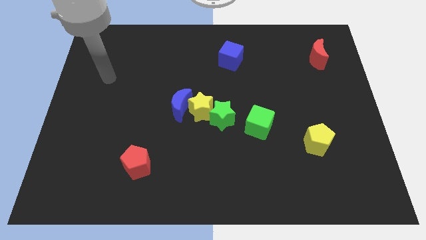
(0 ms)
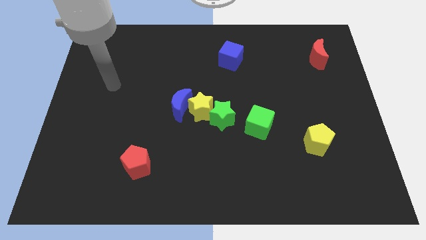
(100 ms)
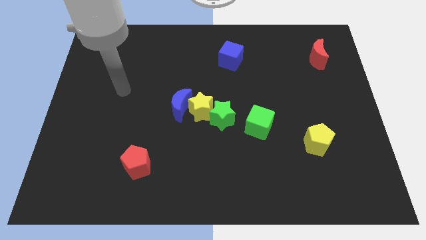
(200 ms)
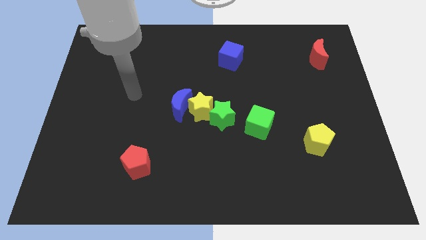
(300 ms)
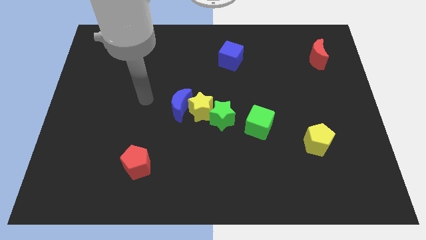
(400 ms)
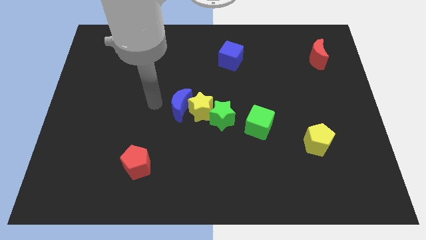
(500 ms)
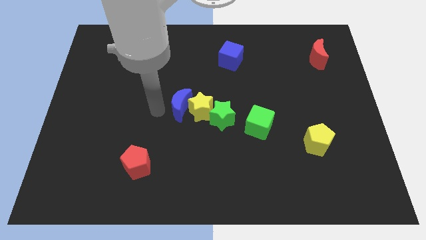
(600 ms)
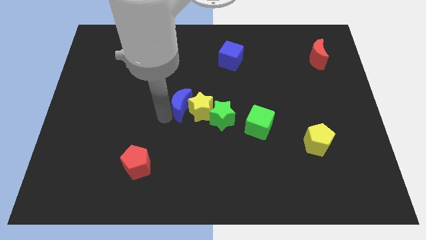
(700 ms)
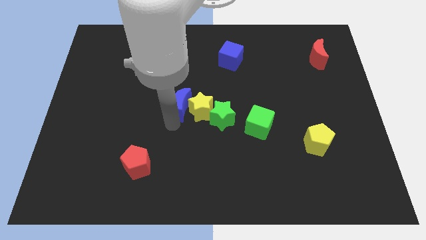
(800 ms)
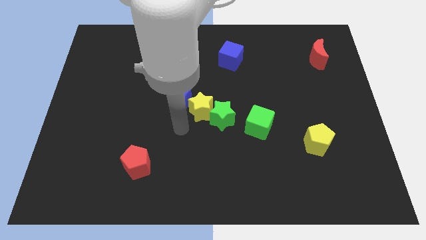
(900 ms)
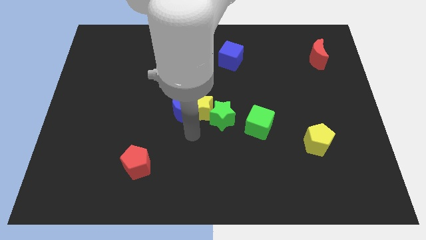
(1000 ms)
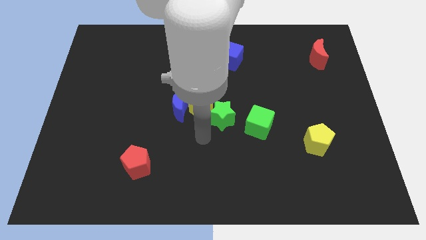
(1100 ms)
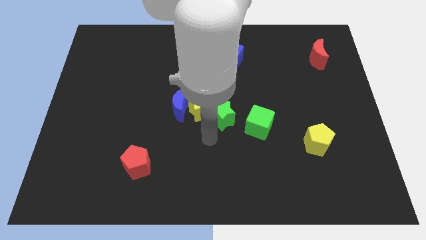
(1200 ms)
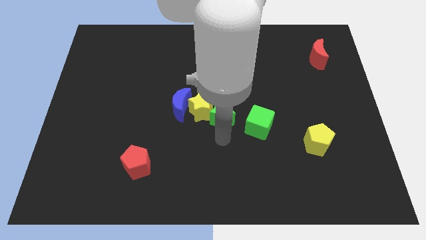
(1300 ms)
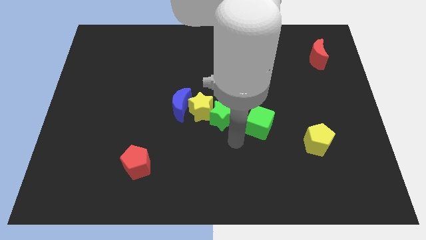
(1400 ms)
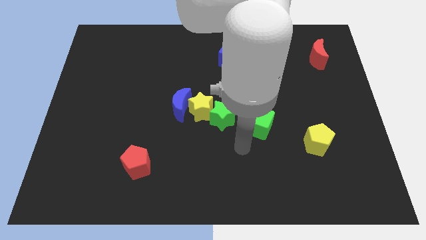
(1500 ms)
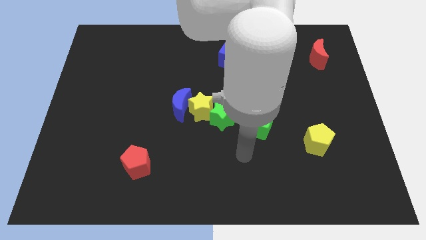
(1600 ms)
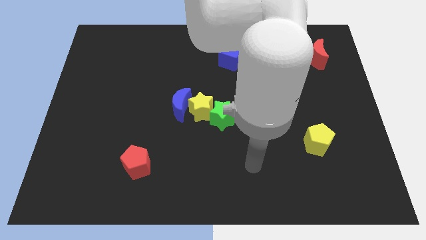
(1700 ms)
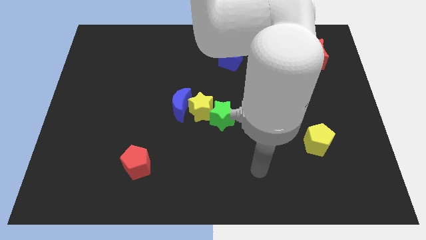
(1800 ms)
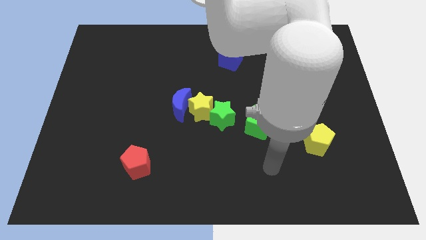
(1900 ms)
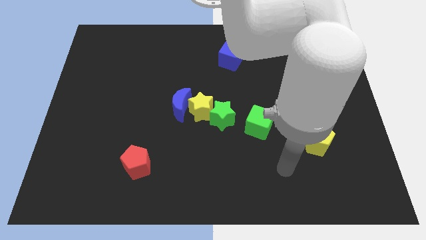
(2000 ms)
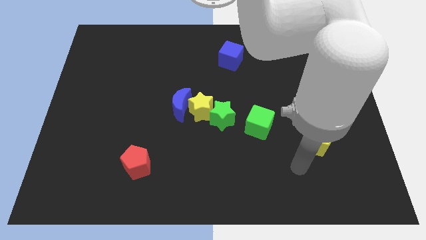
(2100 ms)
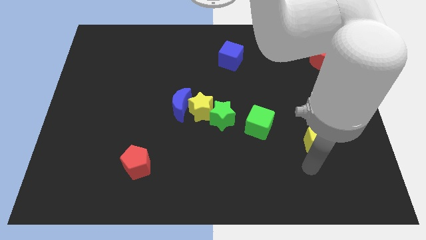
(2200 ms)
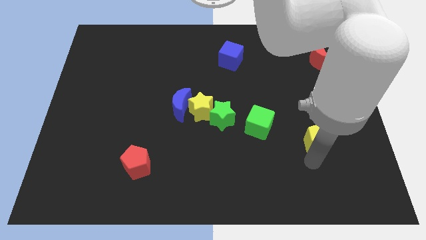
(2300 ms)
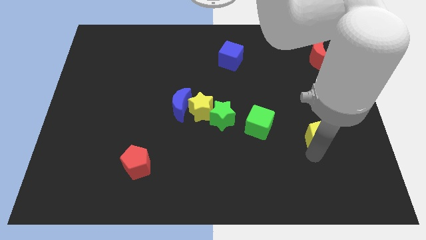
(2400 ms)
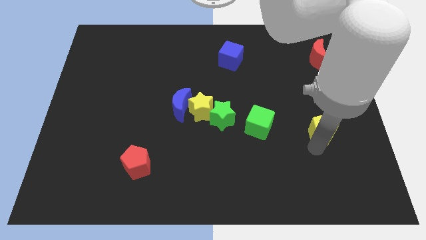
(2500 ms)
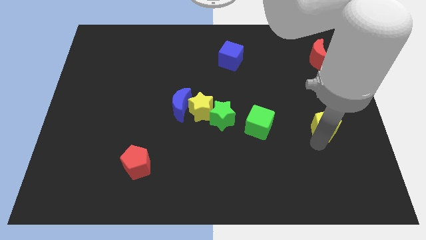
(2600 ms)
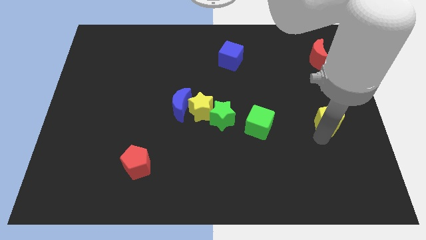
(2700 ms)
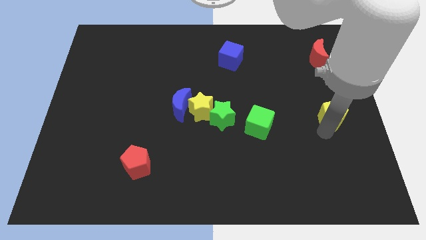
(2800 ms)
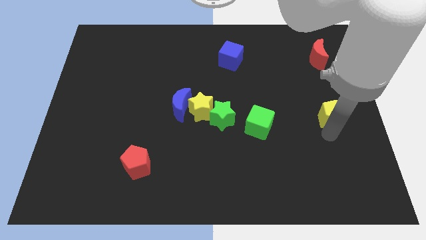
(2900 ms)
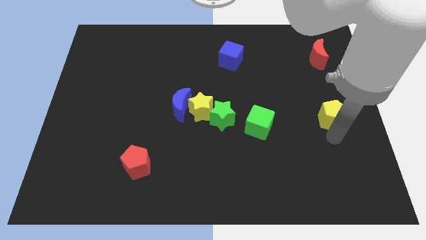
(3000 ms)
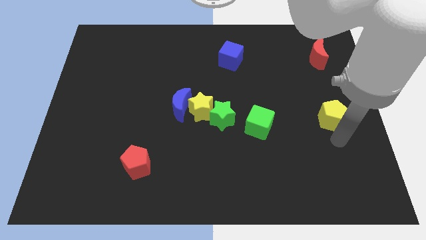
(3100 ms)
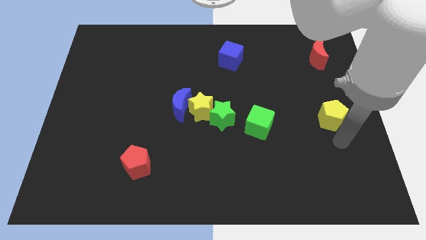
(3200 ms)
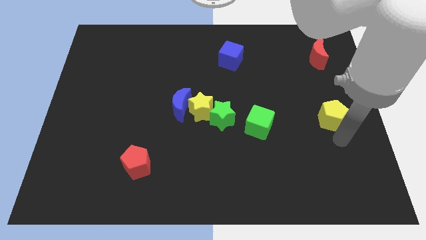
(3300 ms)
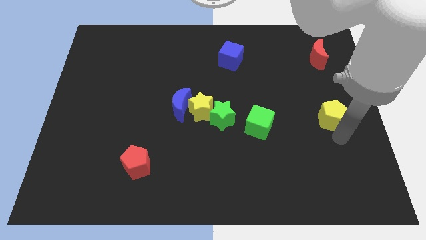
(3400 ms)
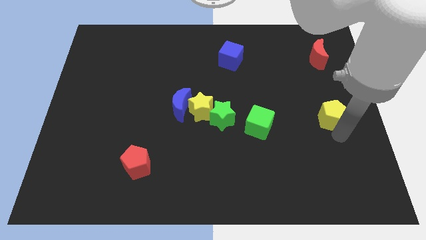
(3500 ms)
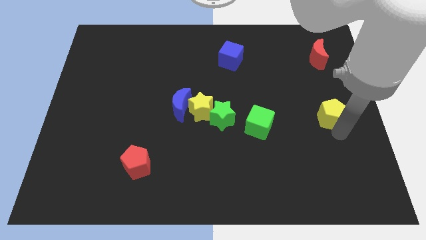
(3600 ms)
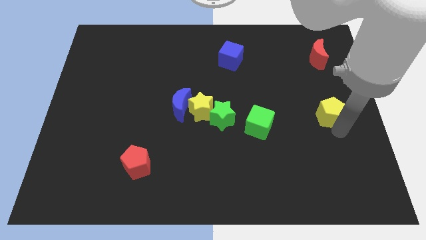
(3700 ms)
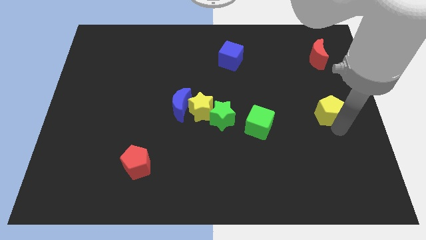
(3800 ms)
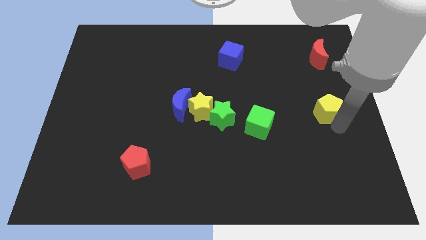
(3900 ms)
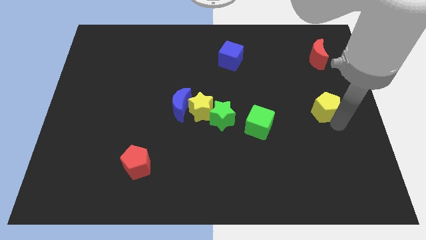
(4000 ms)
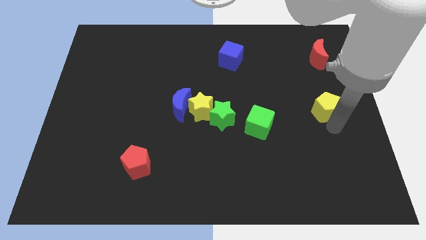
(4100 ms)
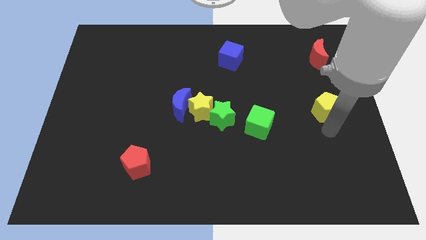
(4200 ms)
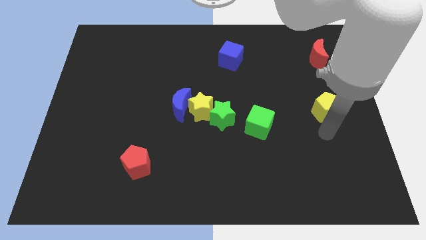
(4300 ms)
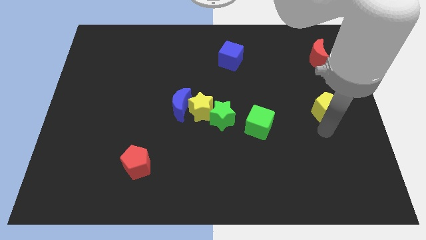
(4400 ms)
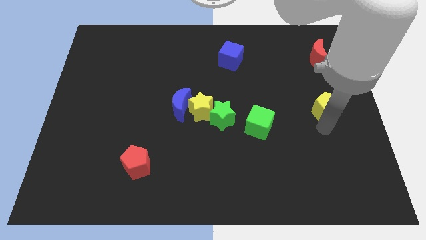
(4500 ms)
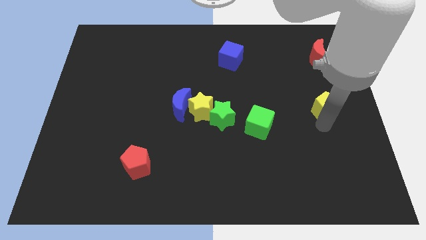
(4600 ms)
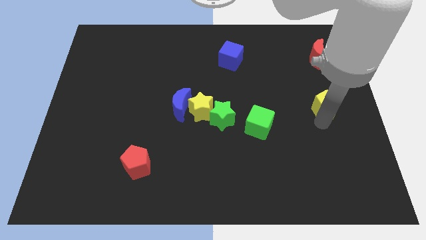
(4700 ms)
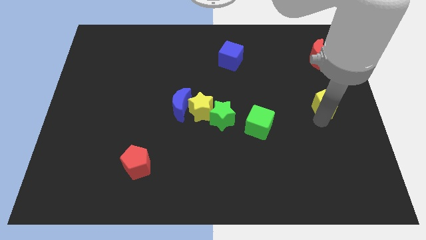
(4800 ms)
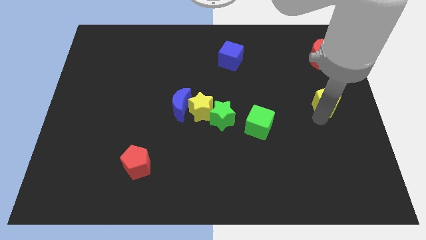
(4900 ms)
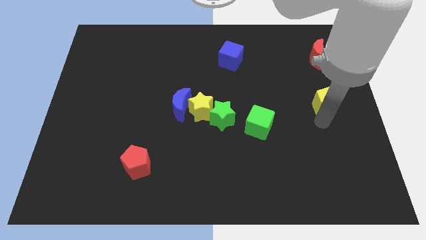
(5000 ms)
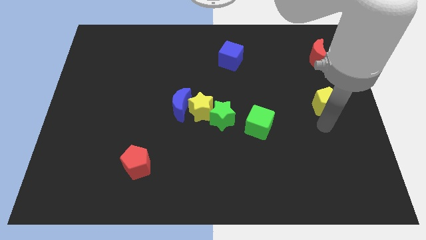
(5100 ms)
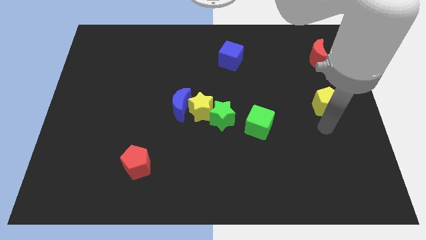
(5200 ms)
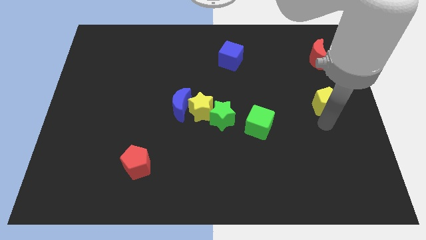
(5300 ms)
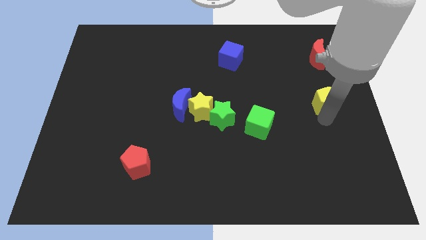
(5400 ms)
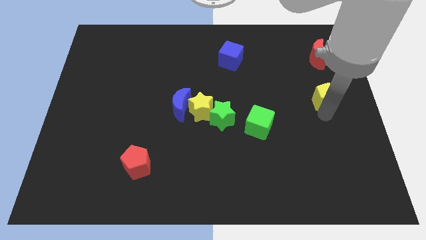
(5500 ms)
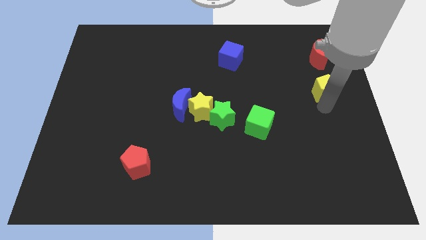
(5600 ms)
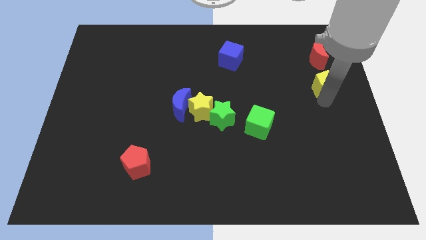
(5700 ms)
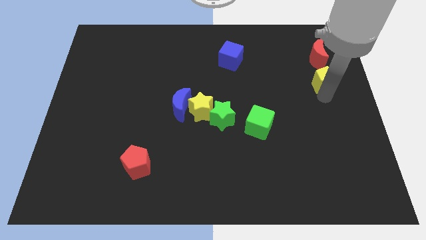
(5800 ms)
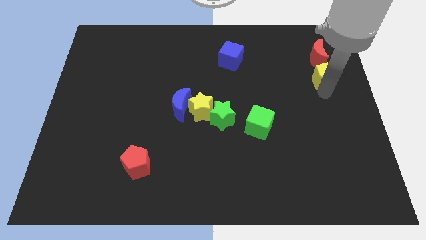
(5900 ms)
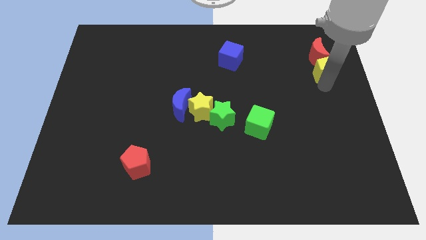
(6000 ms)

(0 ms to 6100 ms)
push the yellow pentagon towards the red moon

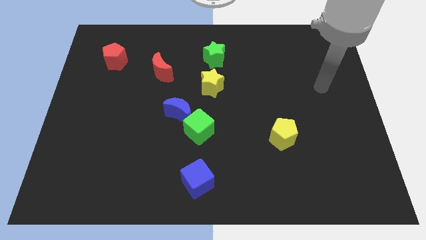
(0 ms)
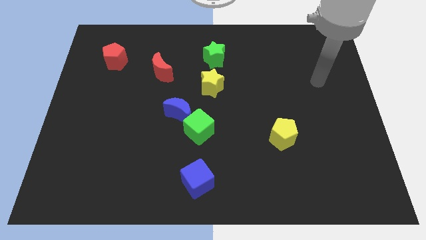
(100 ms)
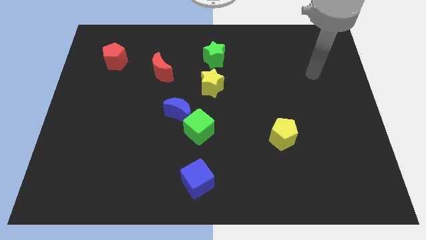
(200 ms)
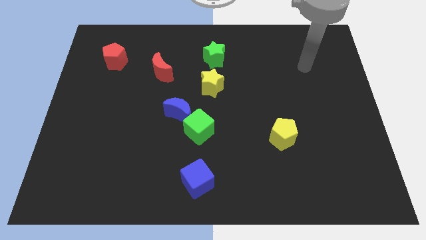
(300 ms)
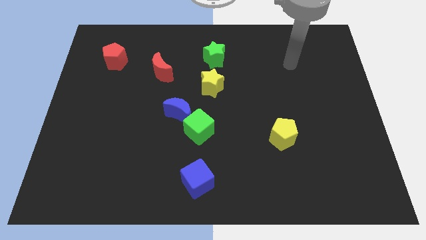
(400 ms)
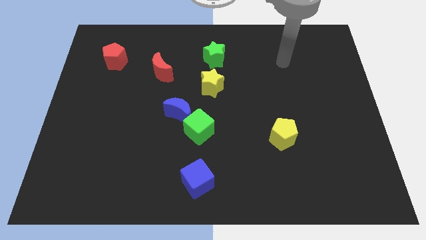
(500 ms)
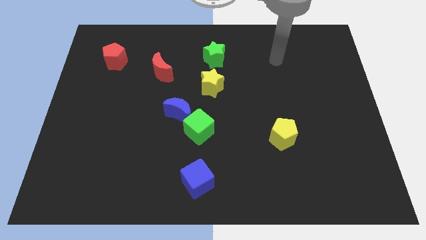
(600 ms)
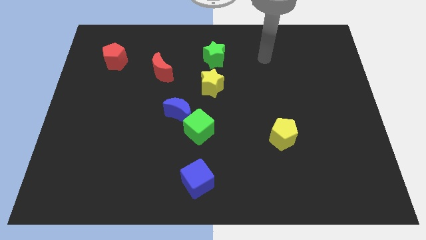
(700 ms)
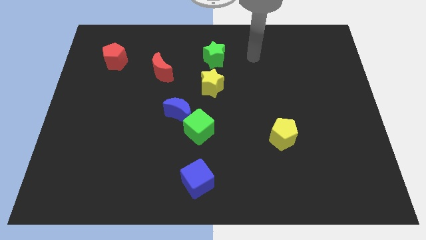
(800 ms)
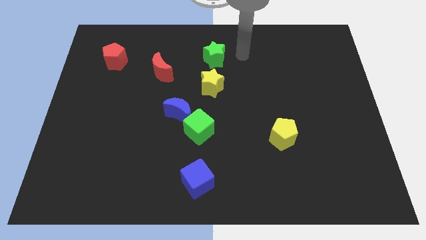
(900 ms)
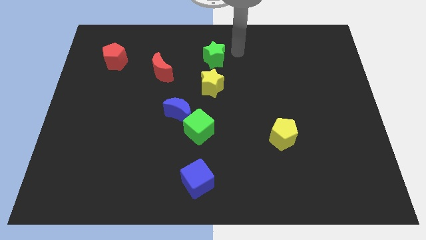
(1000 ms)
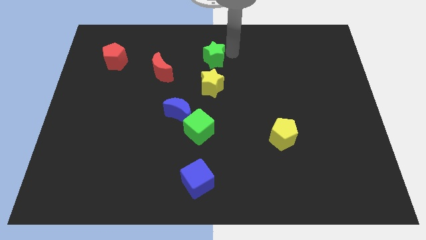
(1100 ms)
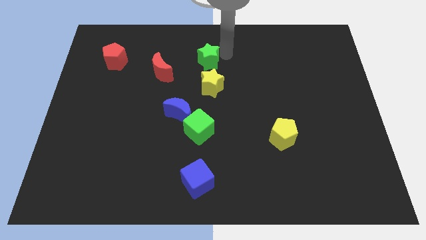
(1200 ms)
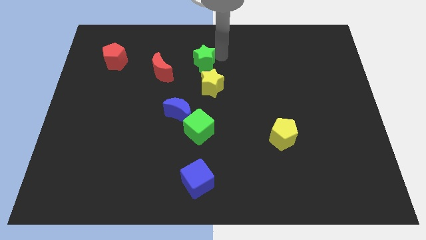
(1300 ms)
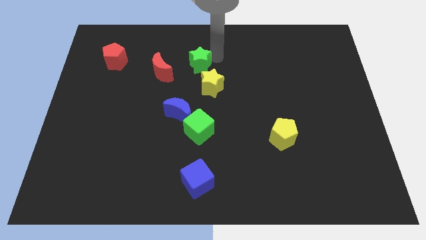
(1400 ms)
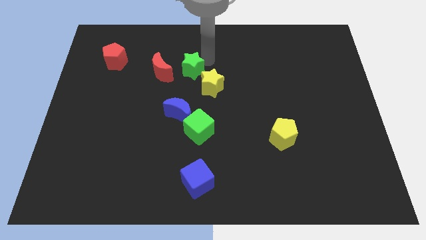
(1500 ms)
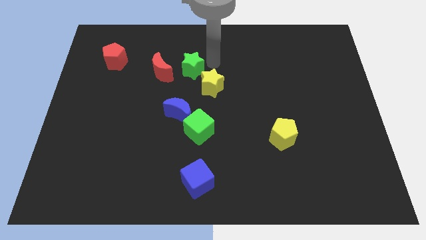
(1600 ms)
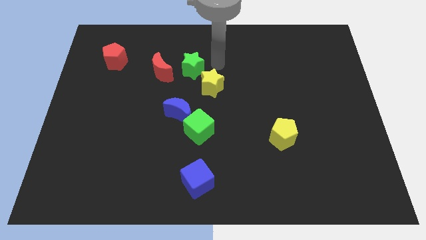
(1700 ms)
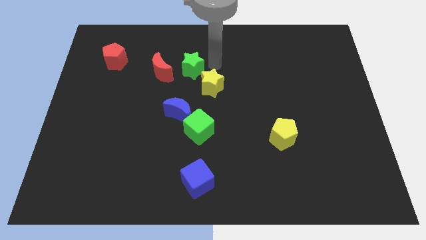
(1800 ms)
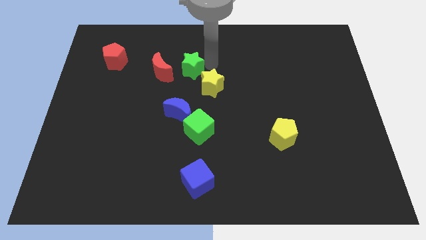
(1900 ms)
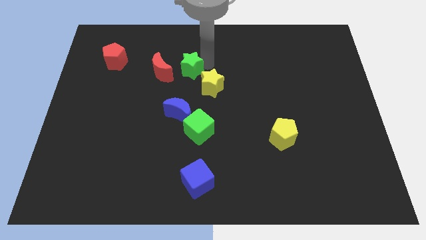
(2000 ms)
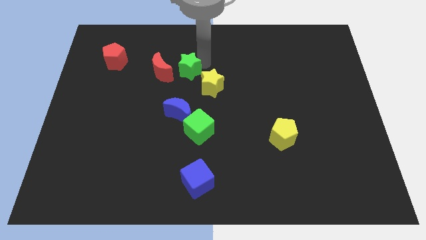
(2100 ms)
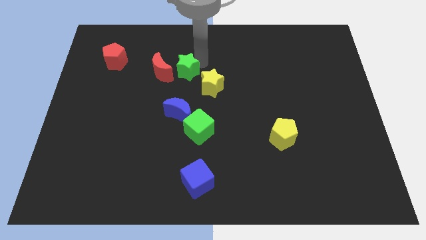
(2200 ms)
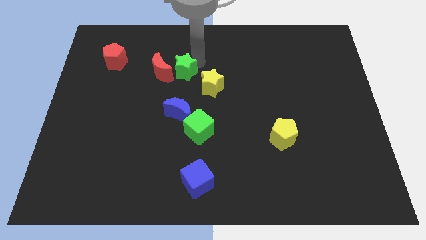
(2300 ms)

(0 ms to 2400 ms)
move the green star to the red moon
